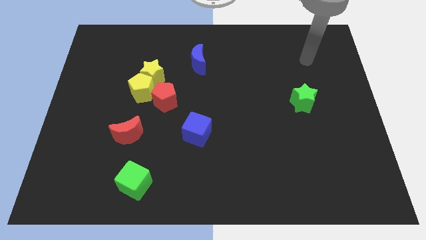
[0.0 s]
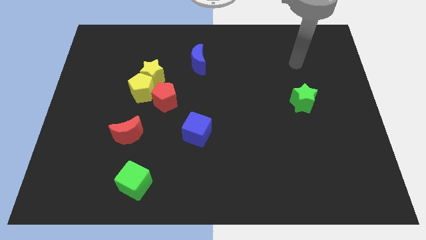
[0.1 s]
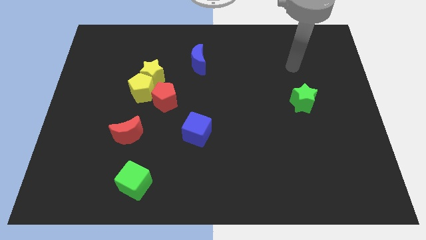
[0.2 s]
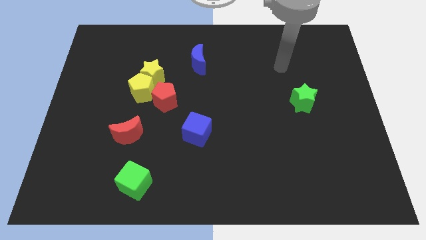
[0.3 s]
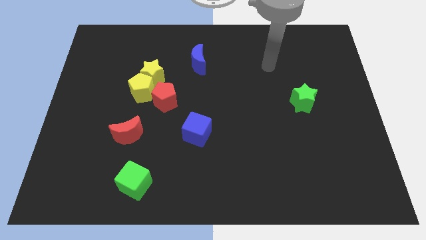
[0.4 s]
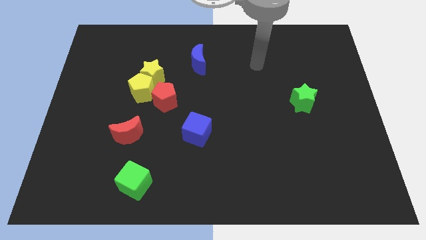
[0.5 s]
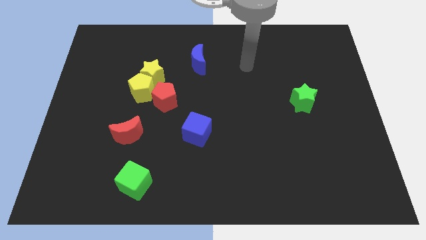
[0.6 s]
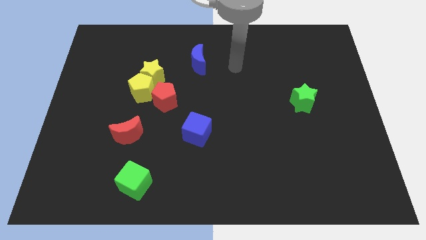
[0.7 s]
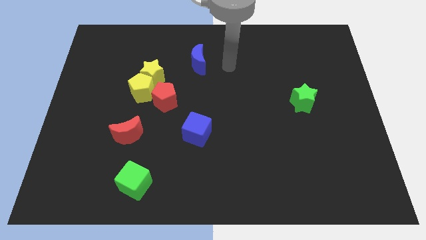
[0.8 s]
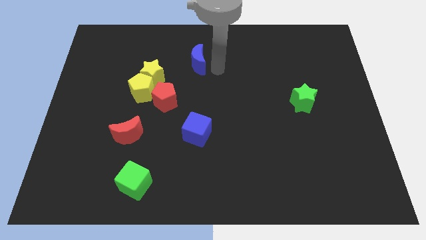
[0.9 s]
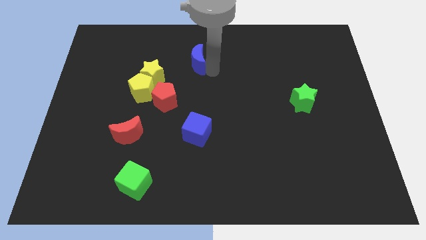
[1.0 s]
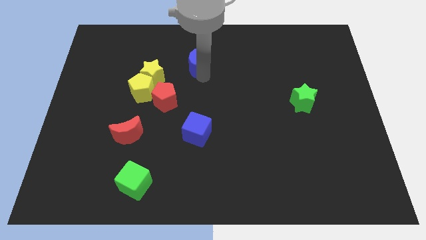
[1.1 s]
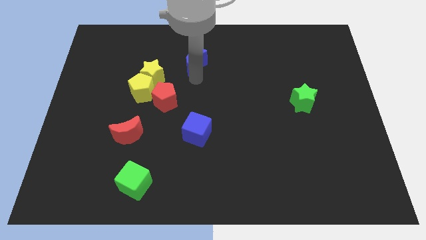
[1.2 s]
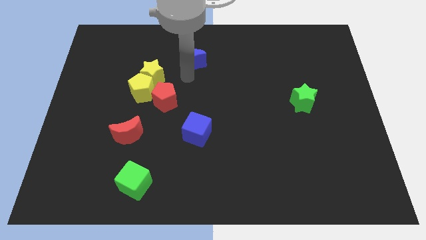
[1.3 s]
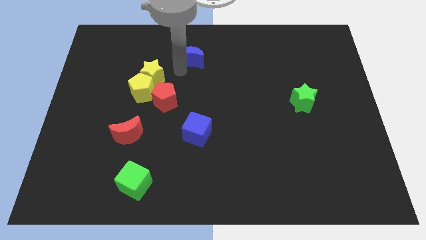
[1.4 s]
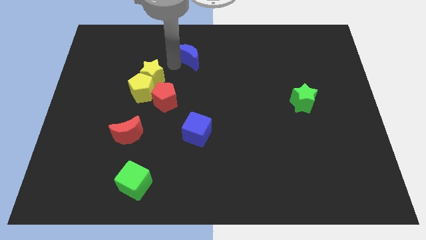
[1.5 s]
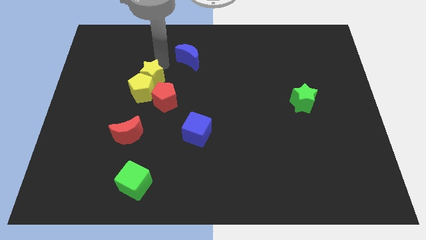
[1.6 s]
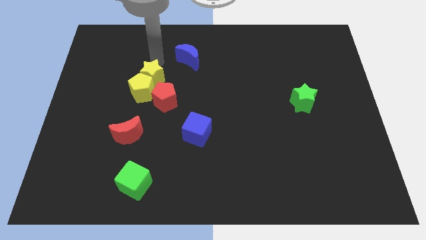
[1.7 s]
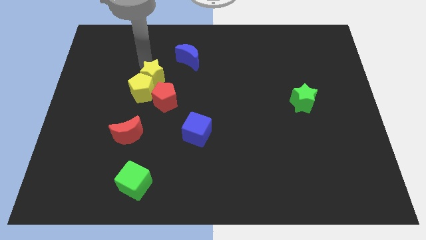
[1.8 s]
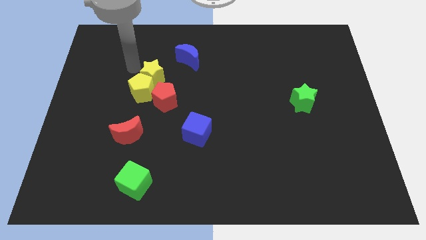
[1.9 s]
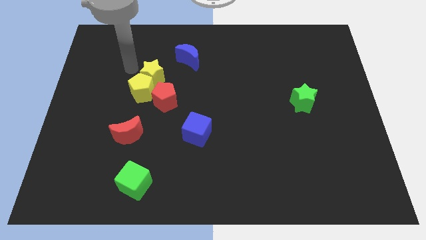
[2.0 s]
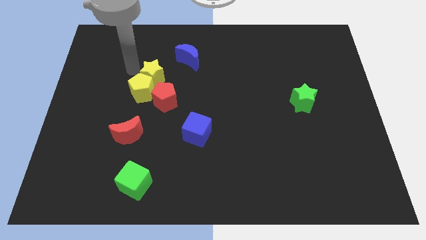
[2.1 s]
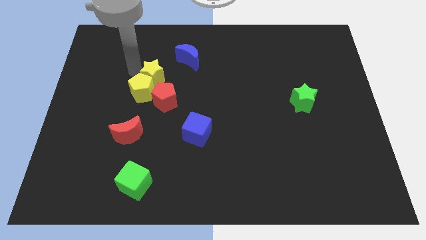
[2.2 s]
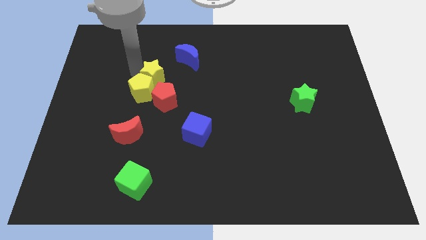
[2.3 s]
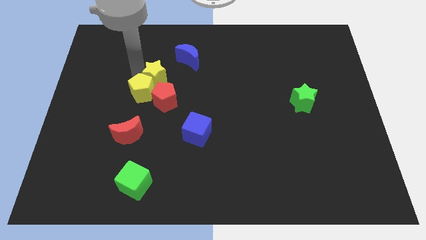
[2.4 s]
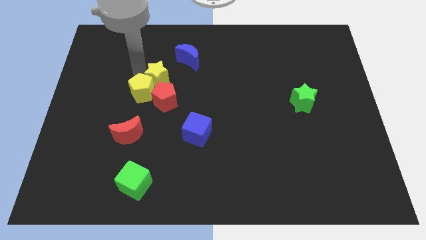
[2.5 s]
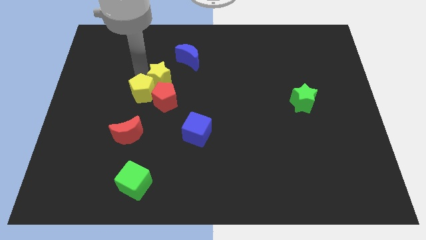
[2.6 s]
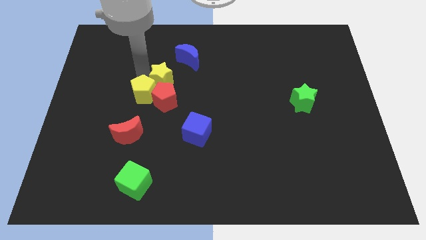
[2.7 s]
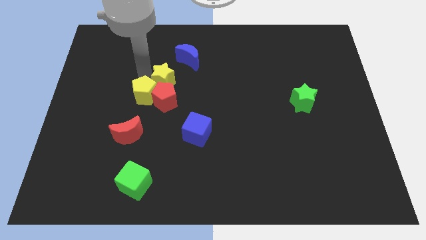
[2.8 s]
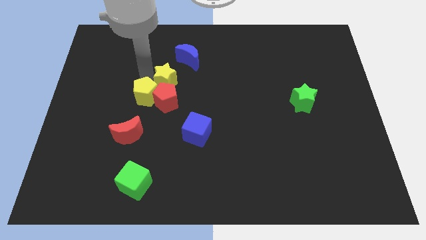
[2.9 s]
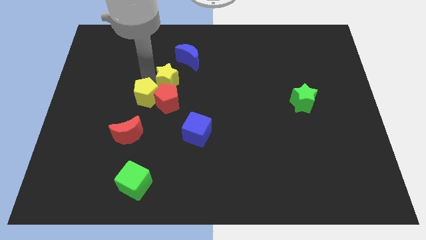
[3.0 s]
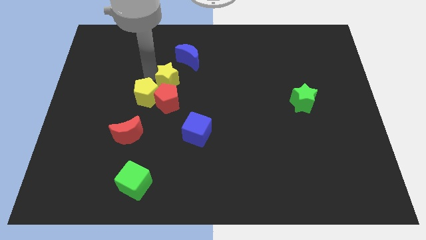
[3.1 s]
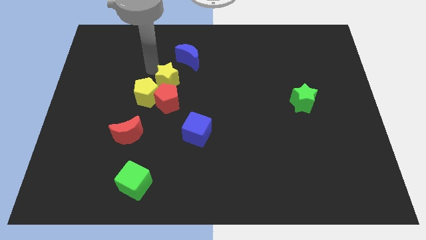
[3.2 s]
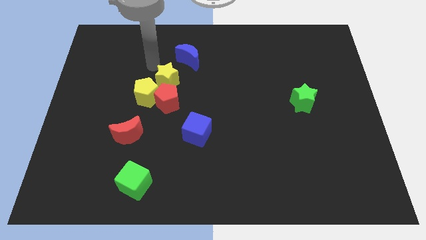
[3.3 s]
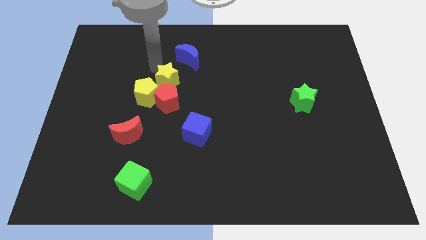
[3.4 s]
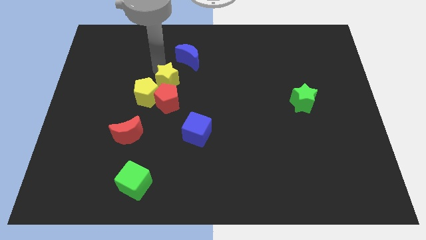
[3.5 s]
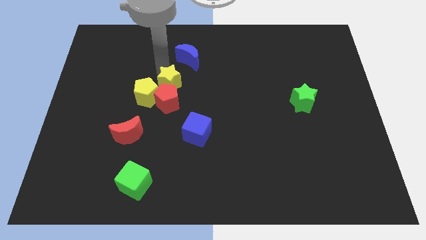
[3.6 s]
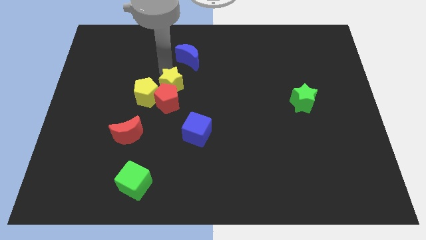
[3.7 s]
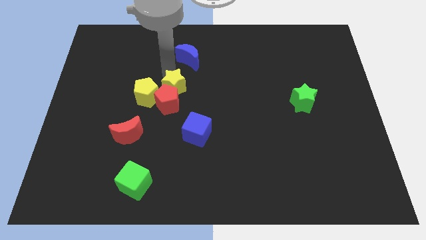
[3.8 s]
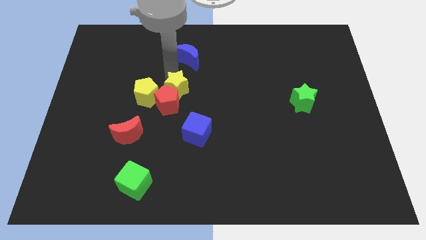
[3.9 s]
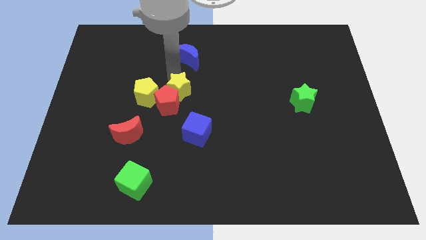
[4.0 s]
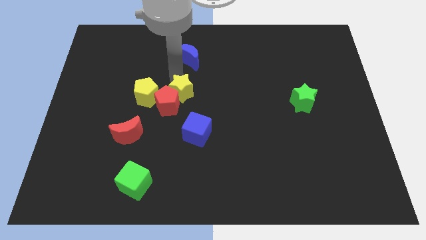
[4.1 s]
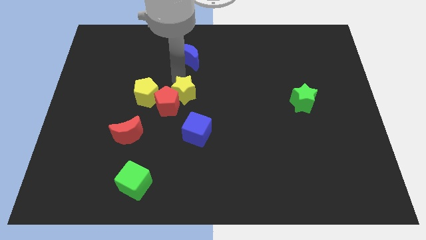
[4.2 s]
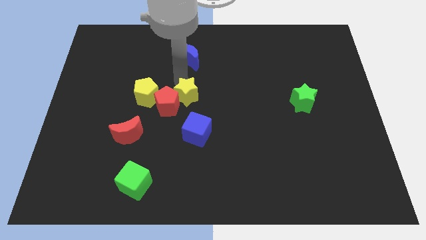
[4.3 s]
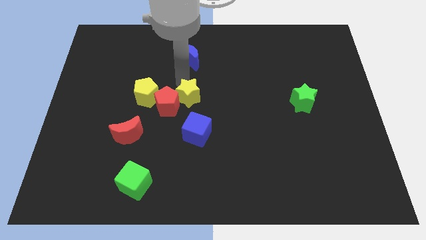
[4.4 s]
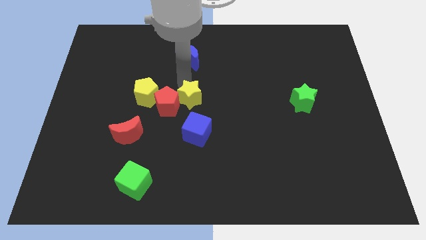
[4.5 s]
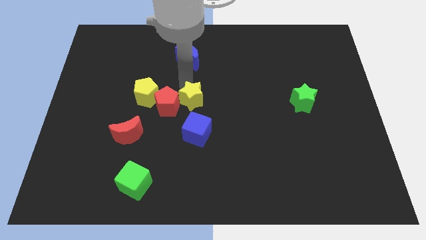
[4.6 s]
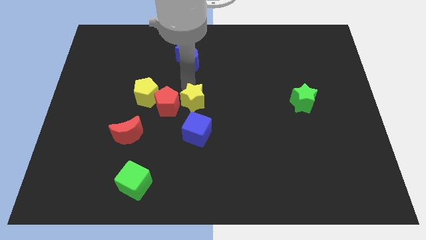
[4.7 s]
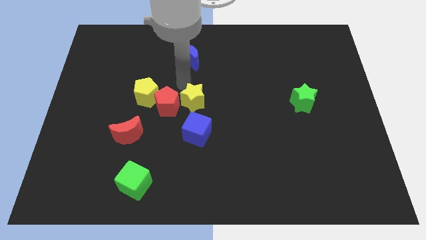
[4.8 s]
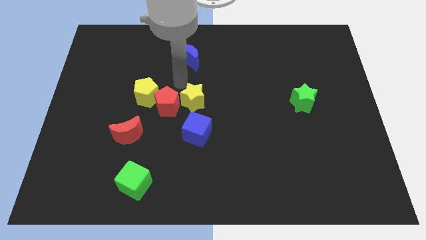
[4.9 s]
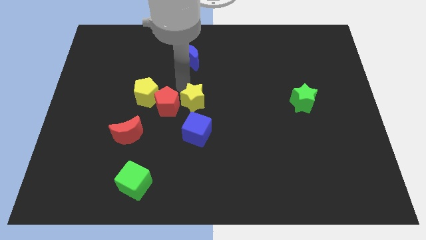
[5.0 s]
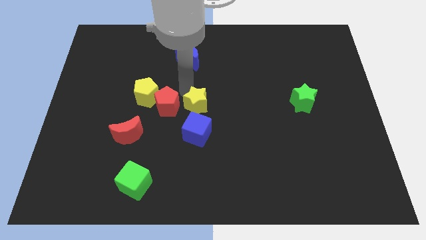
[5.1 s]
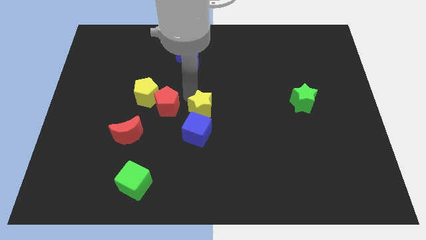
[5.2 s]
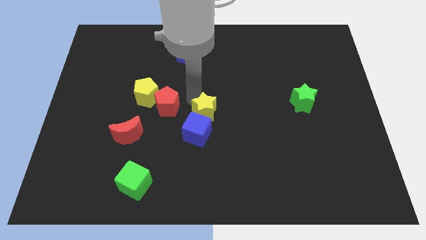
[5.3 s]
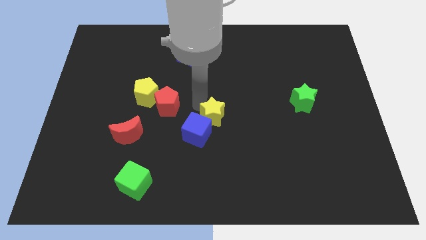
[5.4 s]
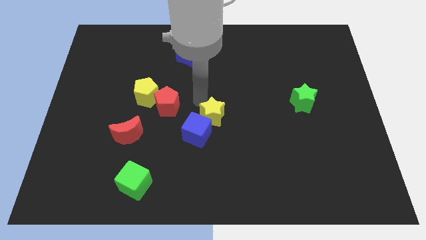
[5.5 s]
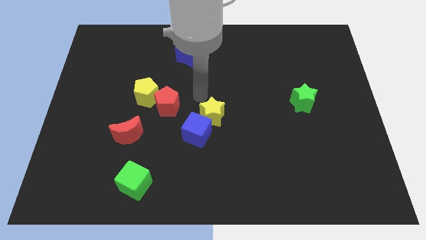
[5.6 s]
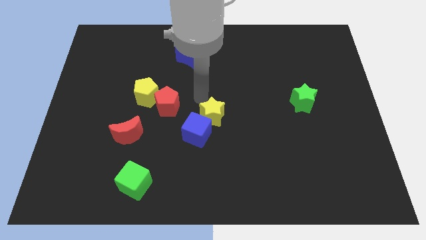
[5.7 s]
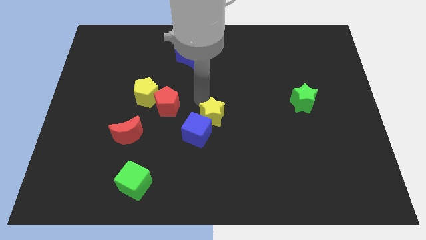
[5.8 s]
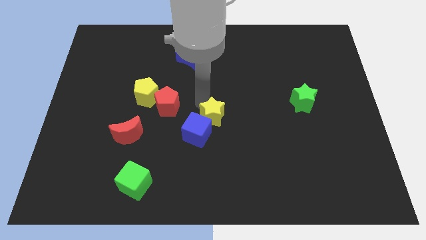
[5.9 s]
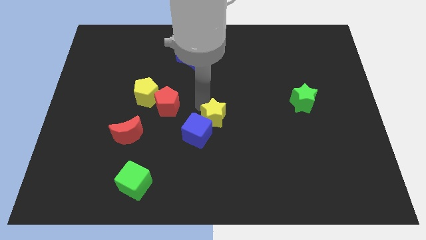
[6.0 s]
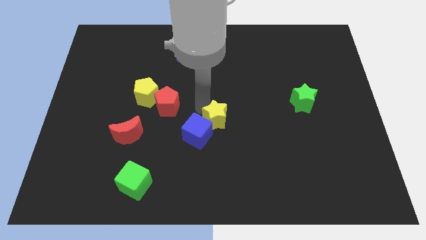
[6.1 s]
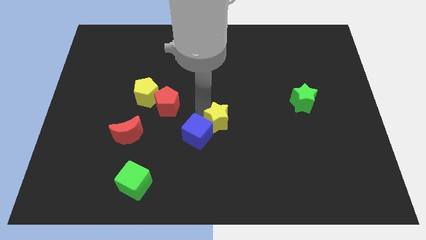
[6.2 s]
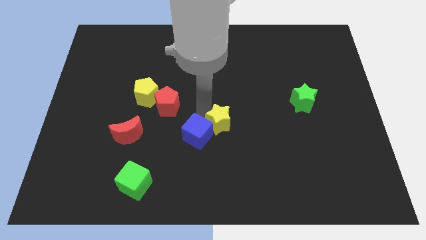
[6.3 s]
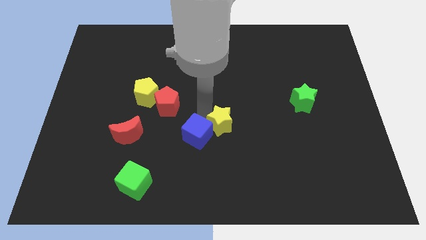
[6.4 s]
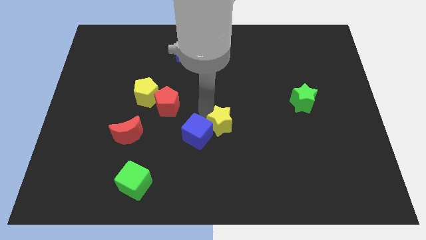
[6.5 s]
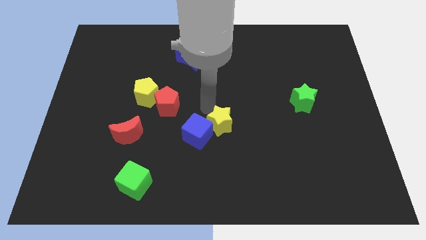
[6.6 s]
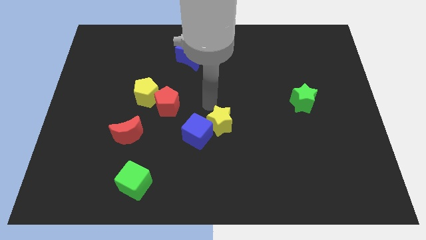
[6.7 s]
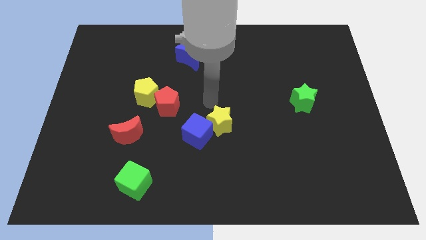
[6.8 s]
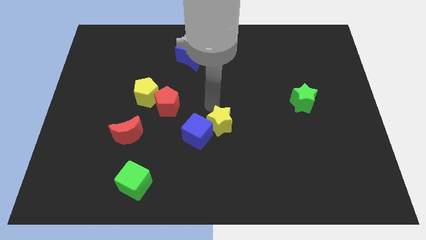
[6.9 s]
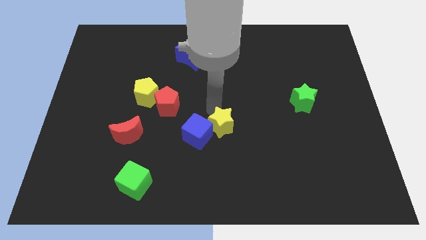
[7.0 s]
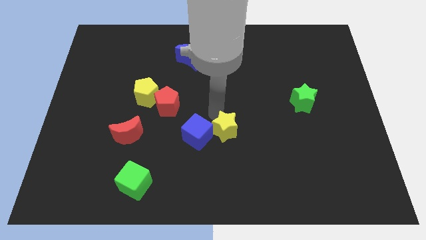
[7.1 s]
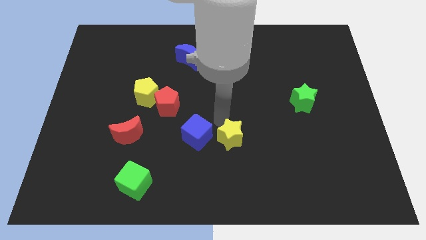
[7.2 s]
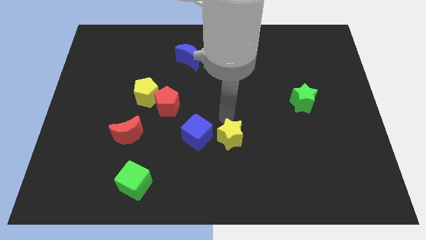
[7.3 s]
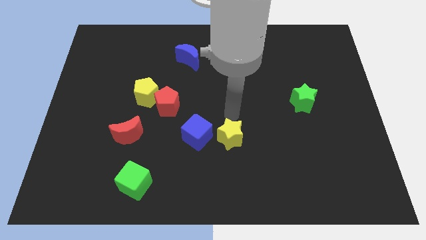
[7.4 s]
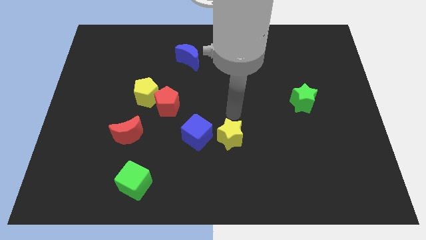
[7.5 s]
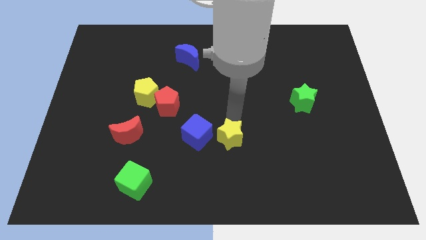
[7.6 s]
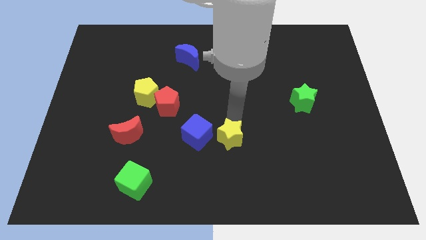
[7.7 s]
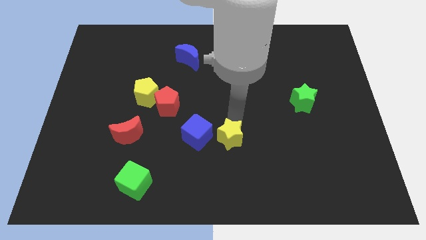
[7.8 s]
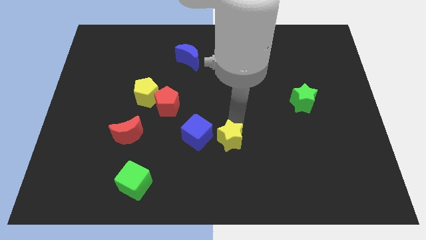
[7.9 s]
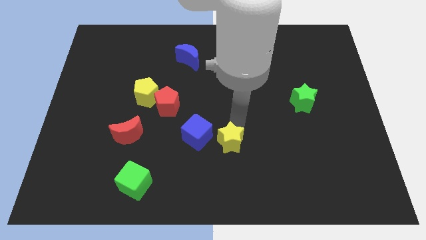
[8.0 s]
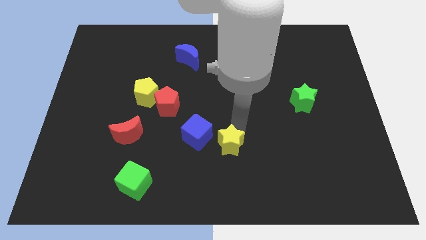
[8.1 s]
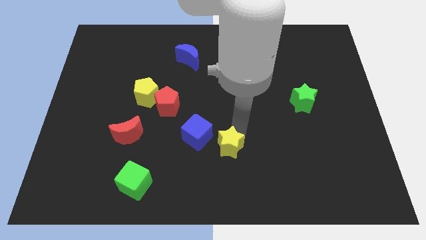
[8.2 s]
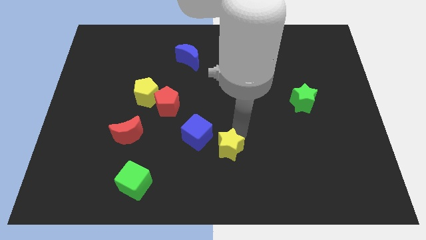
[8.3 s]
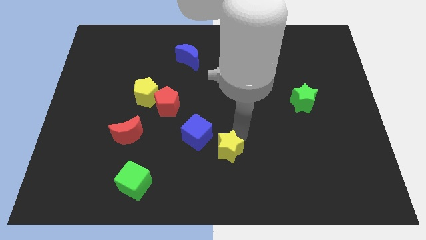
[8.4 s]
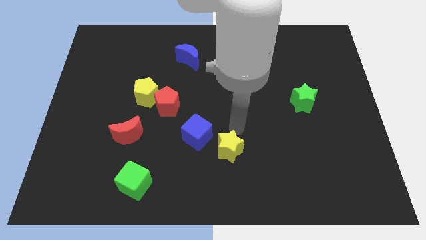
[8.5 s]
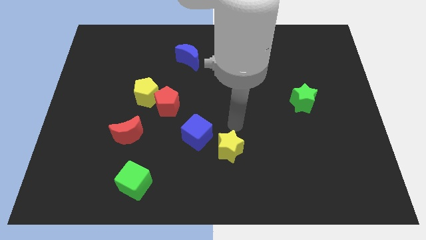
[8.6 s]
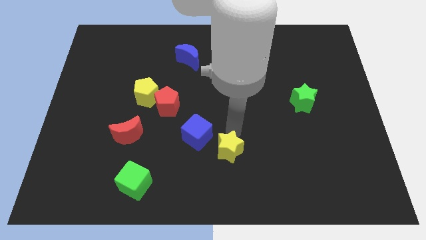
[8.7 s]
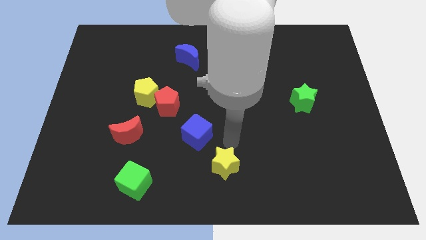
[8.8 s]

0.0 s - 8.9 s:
push the yellow star to the bottom side
